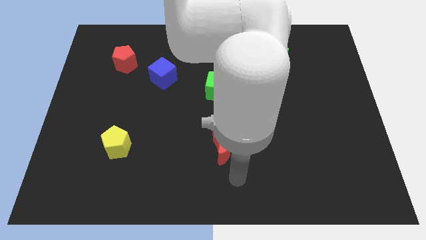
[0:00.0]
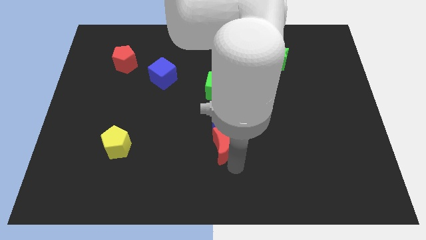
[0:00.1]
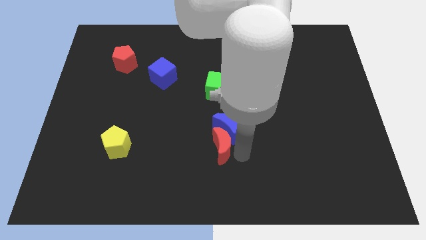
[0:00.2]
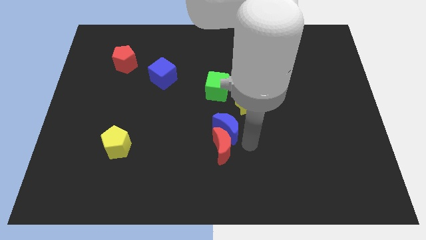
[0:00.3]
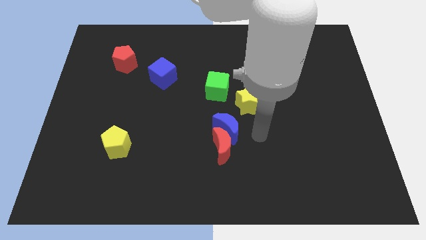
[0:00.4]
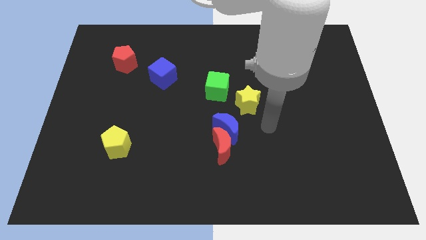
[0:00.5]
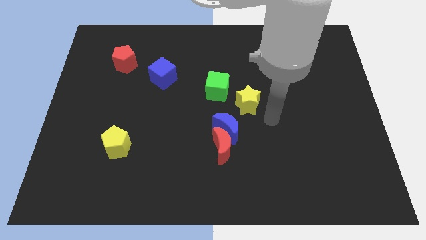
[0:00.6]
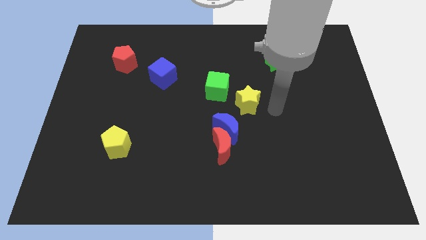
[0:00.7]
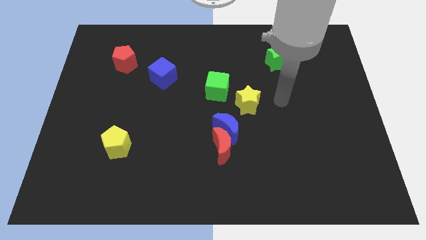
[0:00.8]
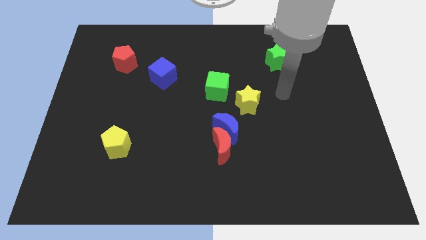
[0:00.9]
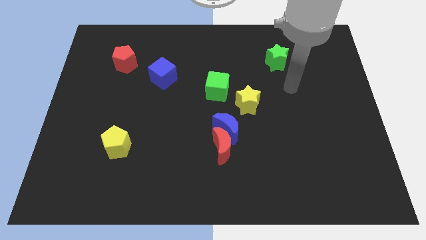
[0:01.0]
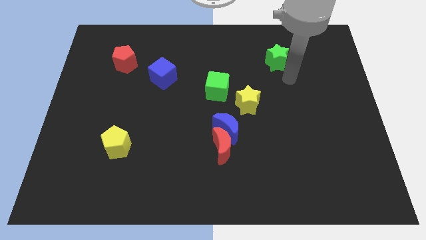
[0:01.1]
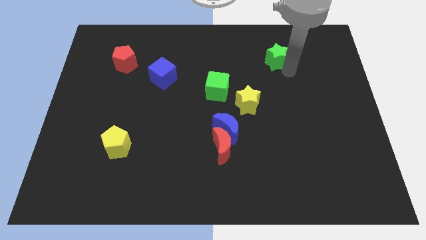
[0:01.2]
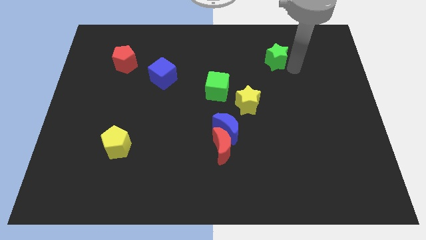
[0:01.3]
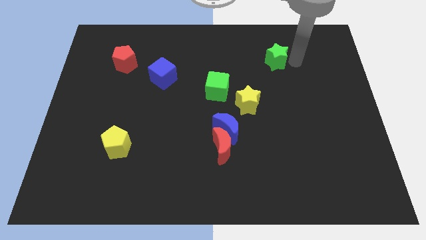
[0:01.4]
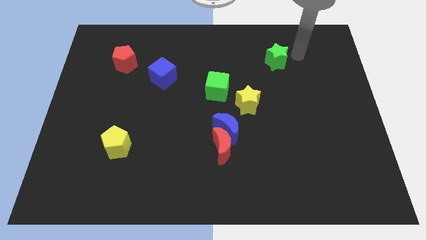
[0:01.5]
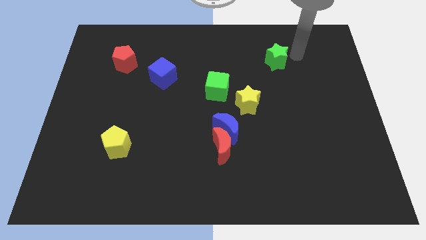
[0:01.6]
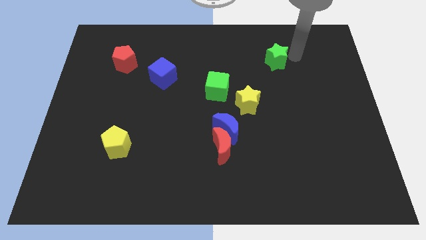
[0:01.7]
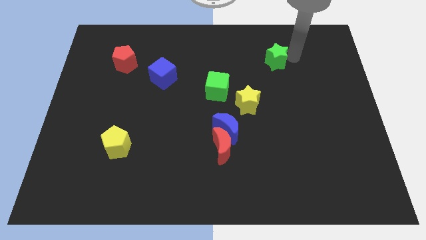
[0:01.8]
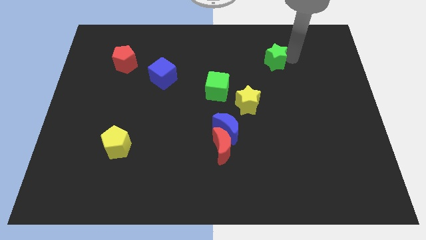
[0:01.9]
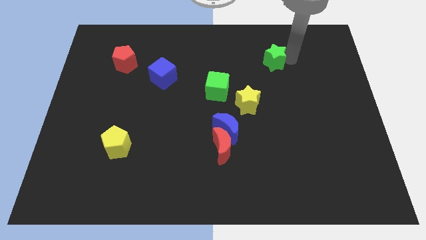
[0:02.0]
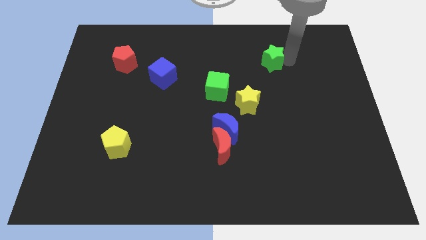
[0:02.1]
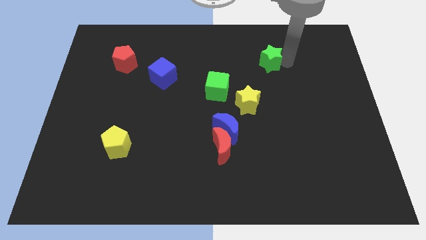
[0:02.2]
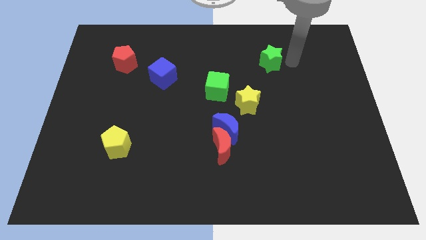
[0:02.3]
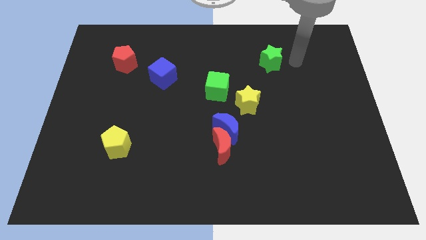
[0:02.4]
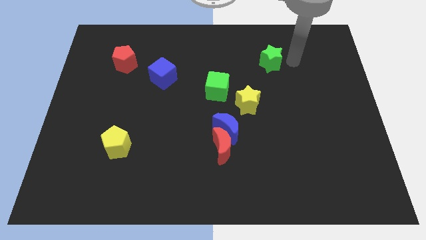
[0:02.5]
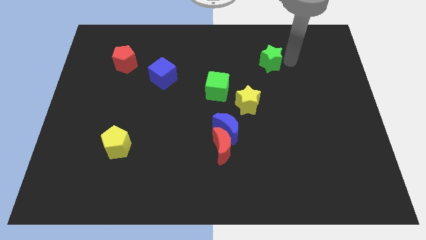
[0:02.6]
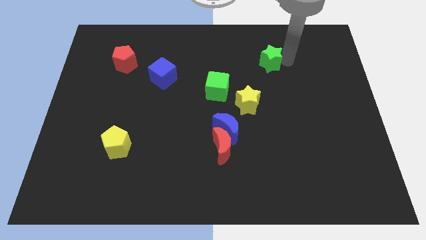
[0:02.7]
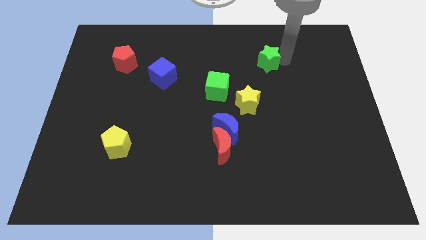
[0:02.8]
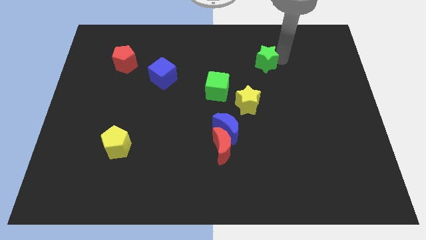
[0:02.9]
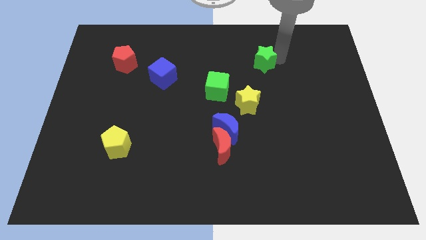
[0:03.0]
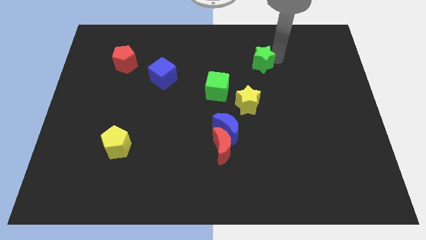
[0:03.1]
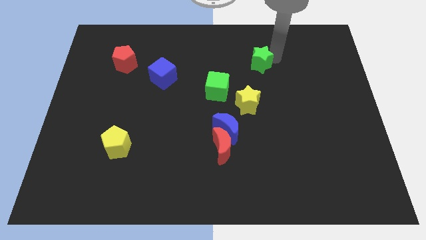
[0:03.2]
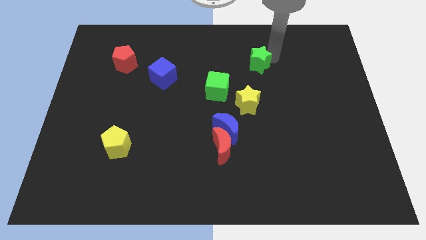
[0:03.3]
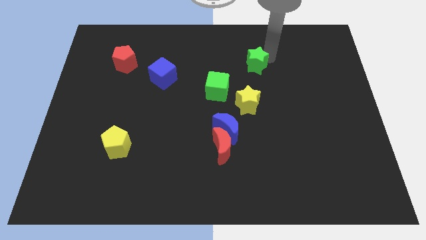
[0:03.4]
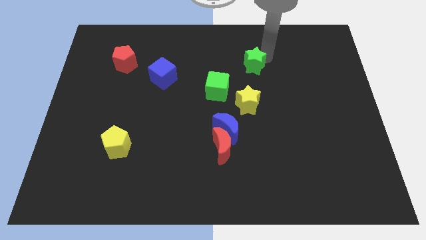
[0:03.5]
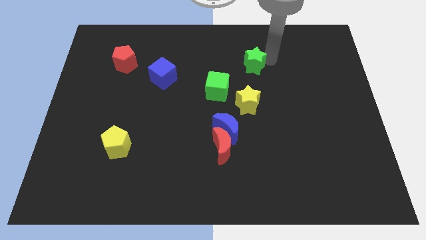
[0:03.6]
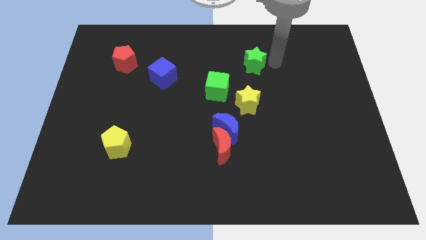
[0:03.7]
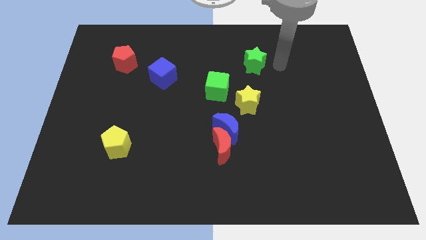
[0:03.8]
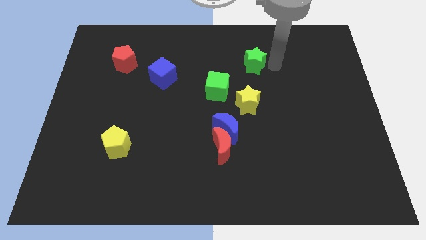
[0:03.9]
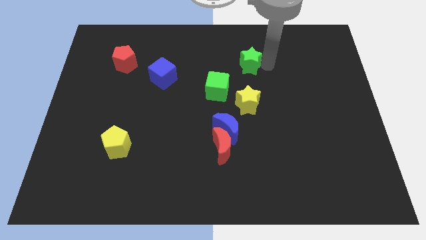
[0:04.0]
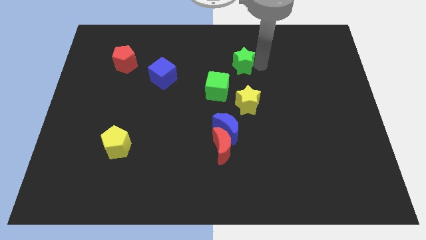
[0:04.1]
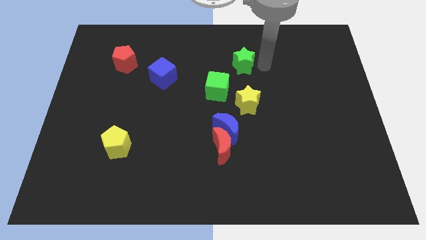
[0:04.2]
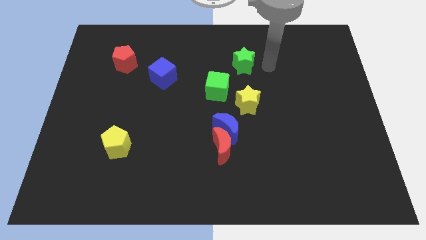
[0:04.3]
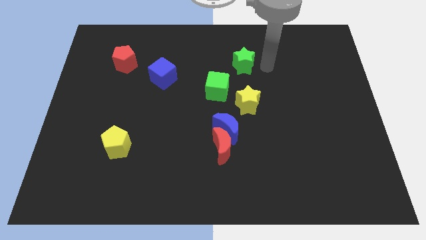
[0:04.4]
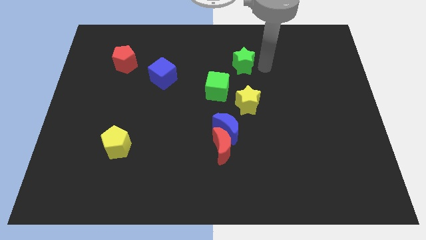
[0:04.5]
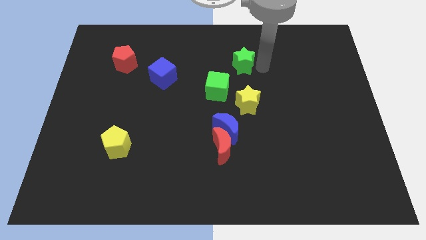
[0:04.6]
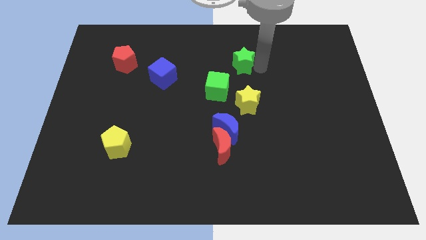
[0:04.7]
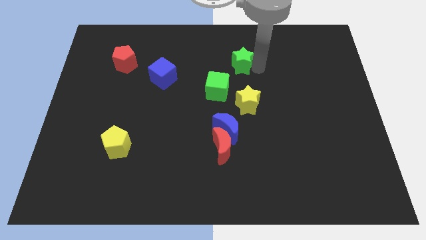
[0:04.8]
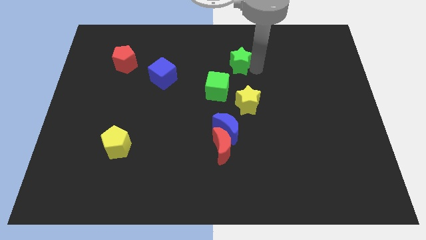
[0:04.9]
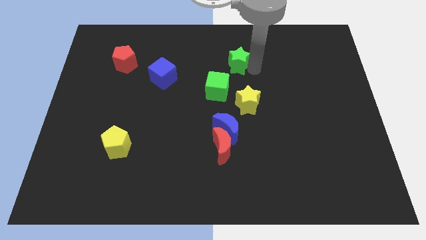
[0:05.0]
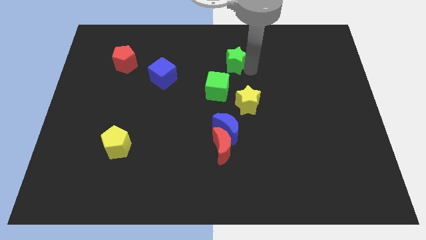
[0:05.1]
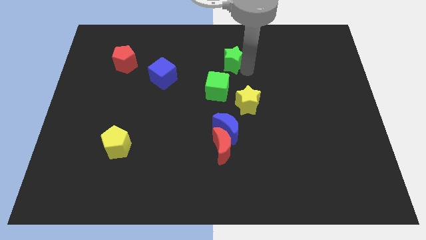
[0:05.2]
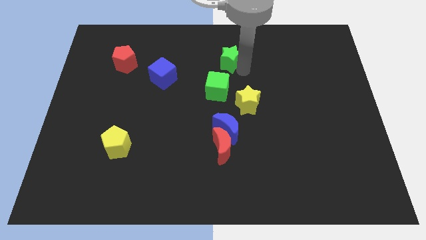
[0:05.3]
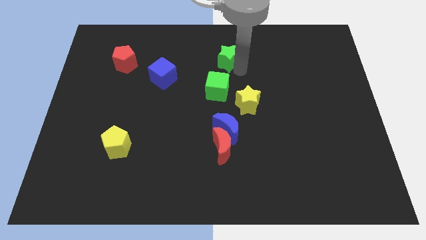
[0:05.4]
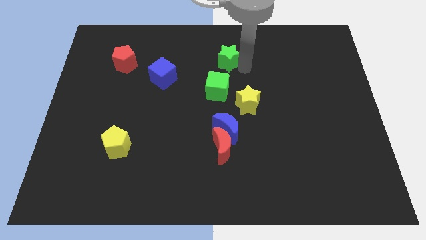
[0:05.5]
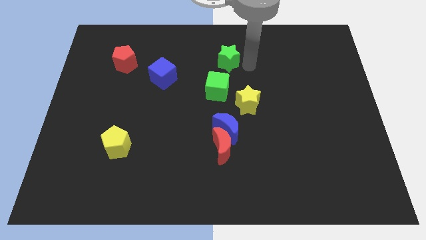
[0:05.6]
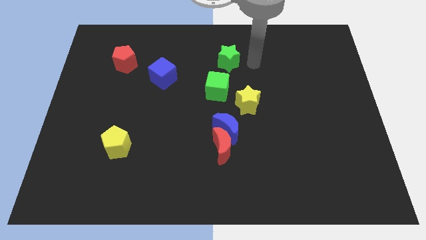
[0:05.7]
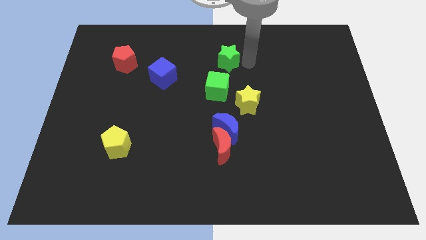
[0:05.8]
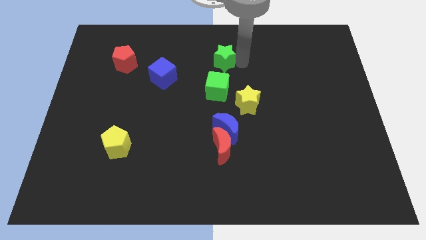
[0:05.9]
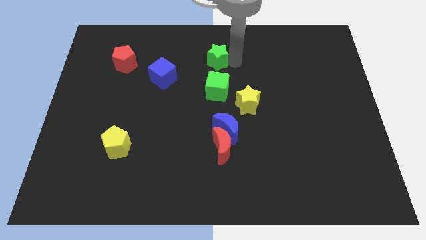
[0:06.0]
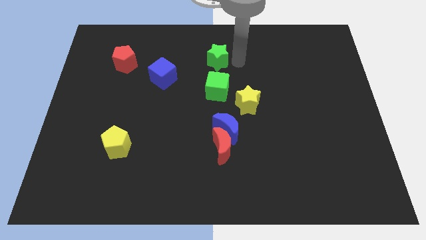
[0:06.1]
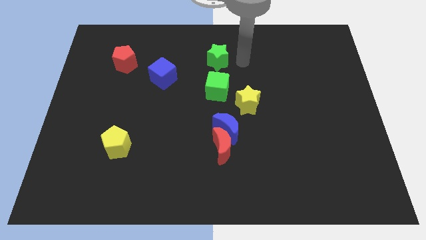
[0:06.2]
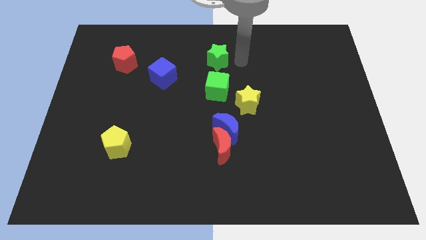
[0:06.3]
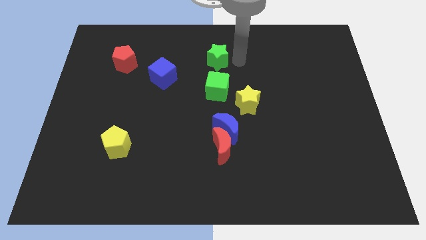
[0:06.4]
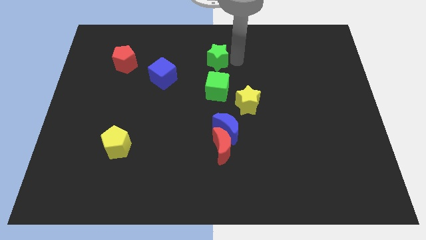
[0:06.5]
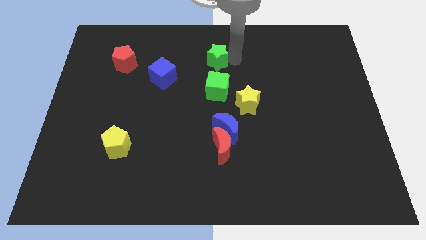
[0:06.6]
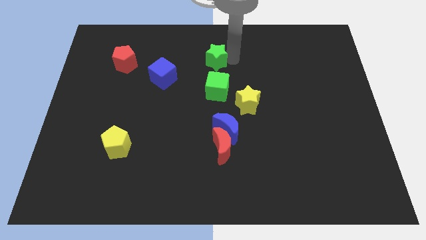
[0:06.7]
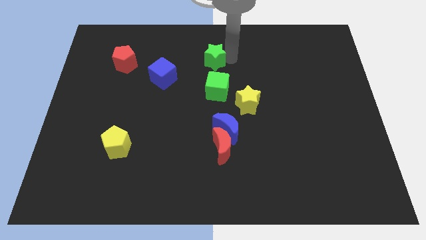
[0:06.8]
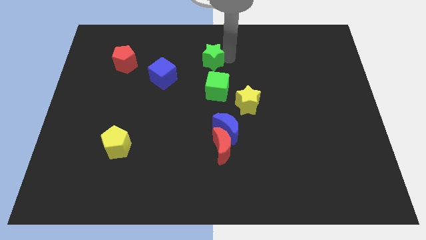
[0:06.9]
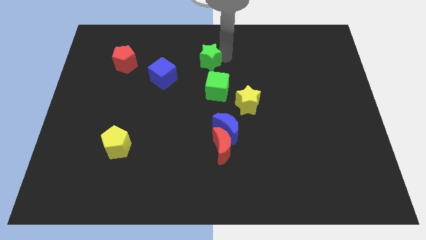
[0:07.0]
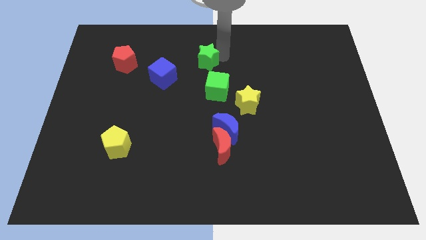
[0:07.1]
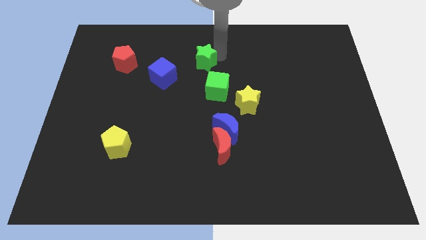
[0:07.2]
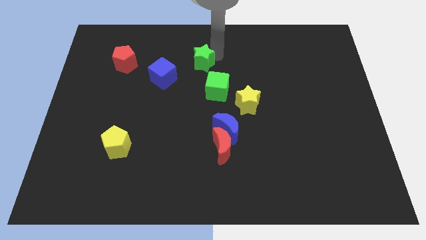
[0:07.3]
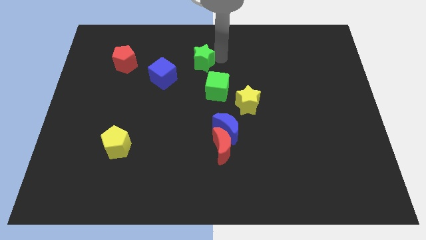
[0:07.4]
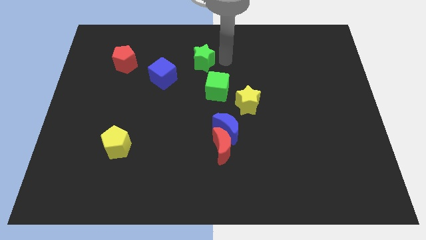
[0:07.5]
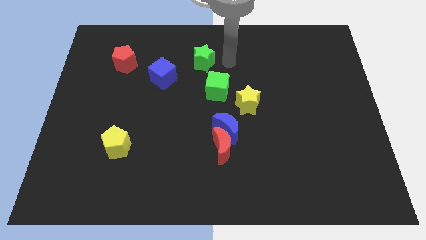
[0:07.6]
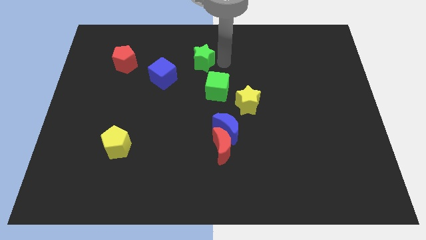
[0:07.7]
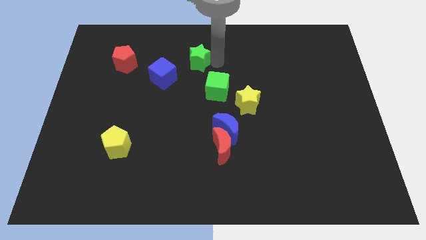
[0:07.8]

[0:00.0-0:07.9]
push the green star to the left
